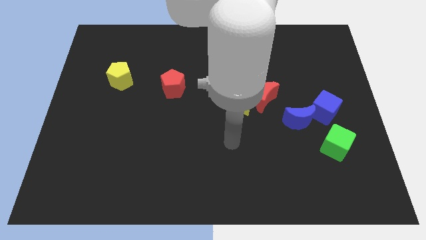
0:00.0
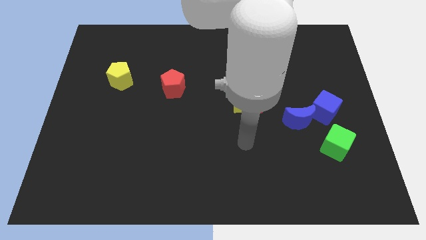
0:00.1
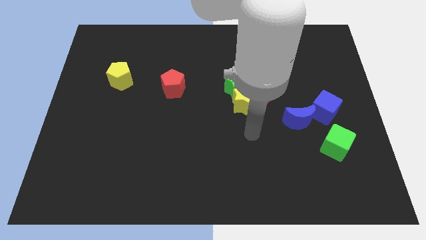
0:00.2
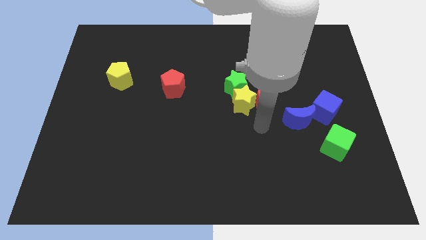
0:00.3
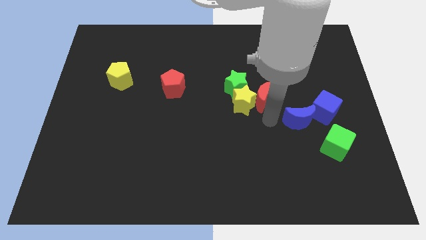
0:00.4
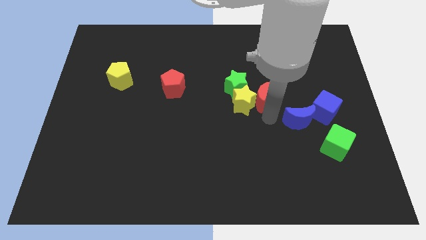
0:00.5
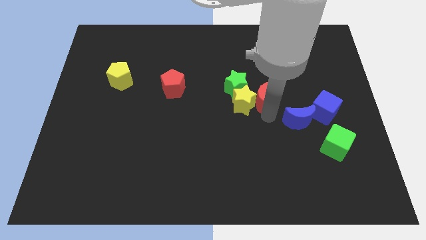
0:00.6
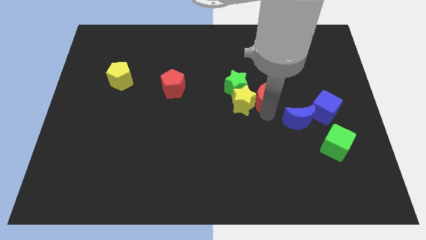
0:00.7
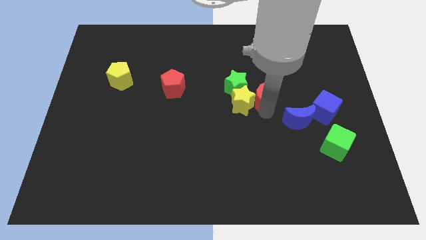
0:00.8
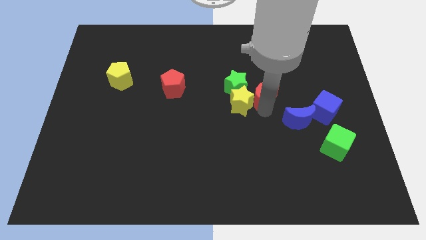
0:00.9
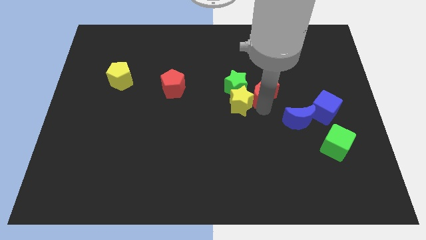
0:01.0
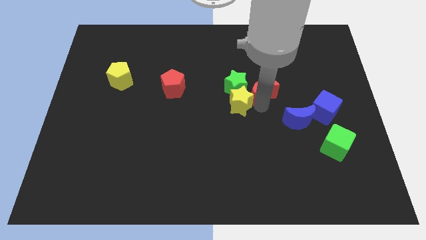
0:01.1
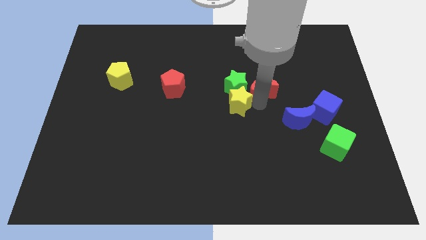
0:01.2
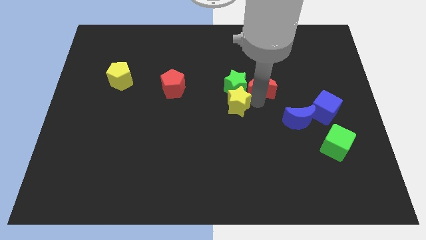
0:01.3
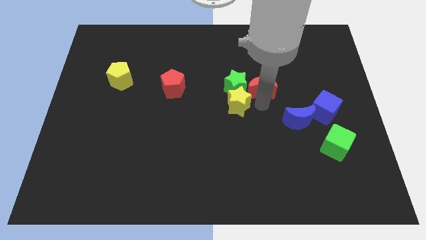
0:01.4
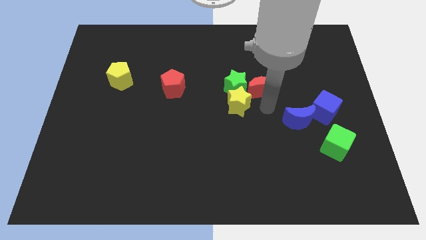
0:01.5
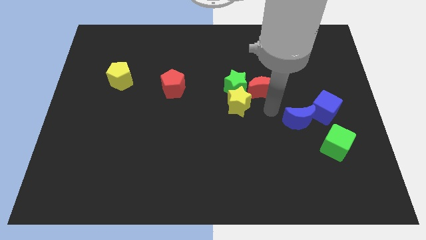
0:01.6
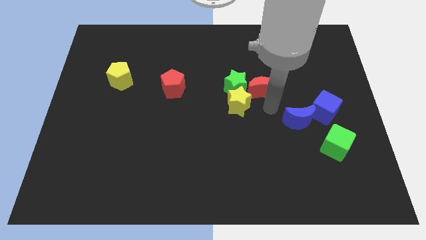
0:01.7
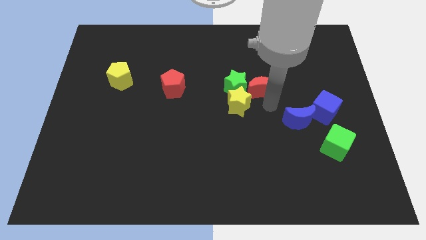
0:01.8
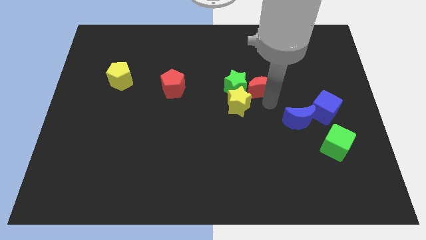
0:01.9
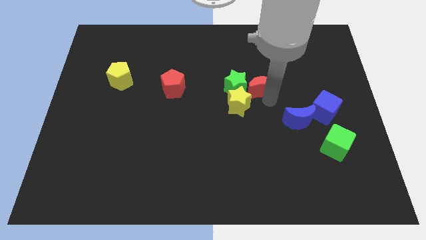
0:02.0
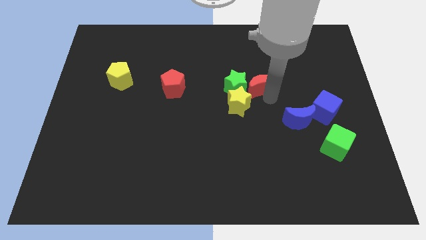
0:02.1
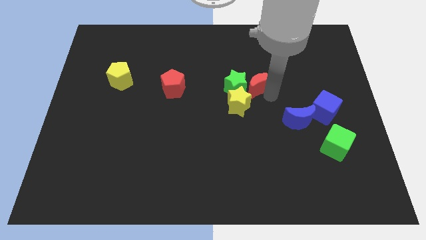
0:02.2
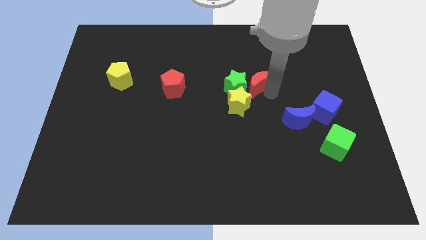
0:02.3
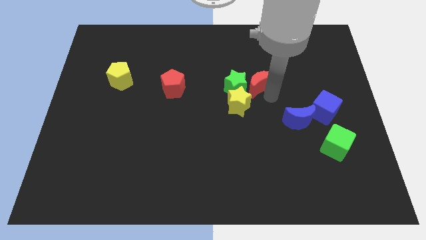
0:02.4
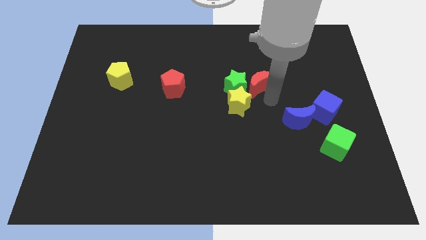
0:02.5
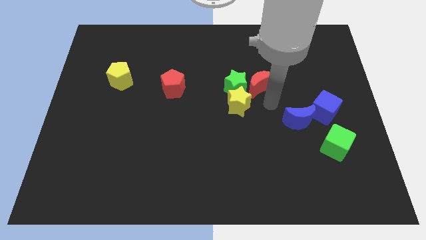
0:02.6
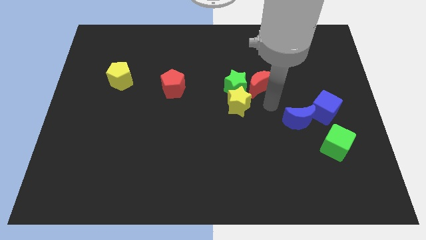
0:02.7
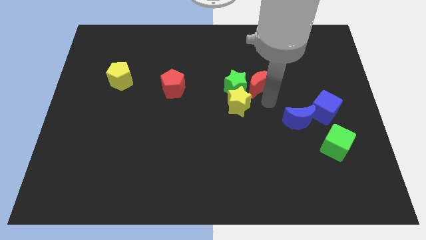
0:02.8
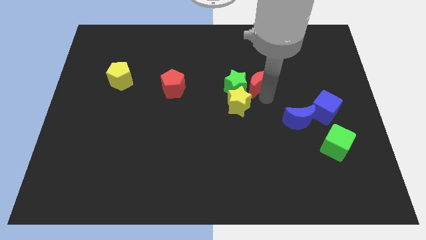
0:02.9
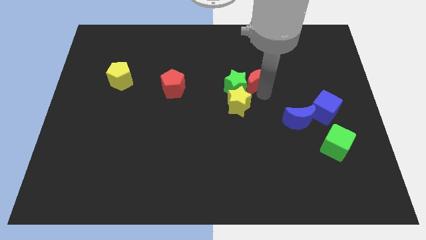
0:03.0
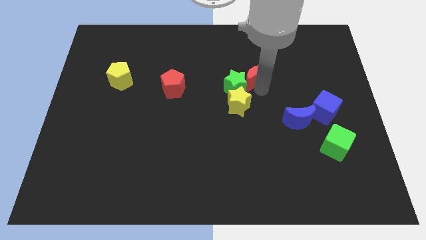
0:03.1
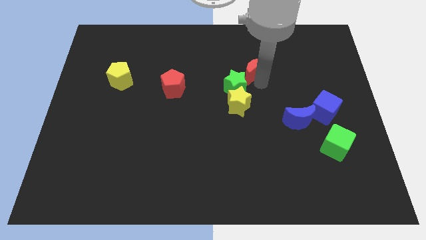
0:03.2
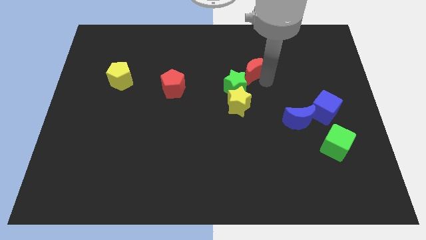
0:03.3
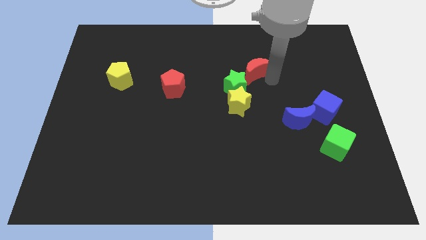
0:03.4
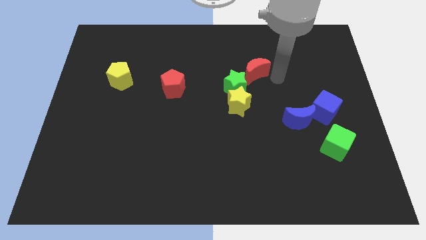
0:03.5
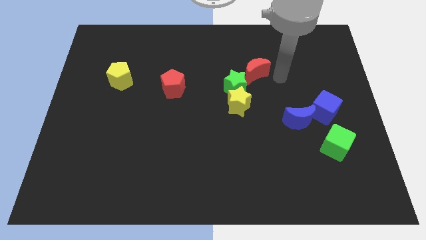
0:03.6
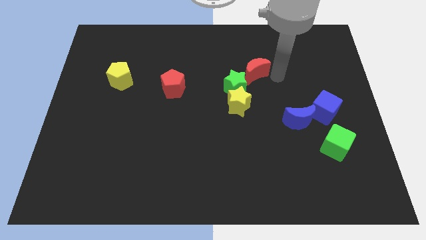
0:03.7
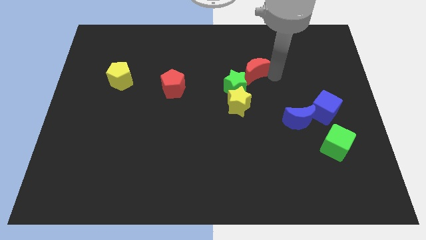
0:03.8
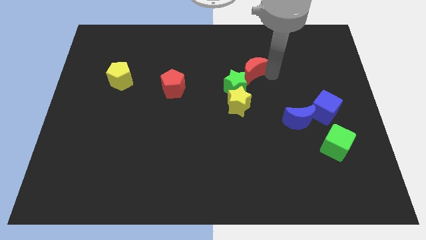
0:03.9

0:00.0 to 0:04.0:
move the red moon upwards and to the left somewhat

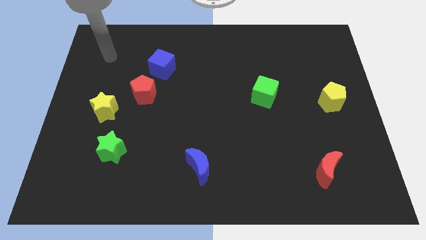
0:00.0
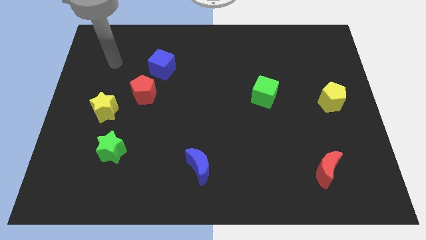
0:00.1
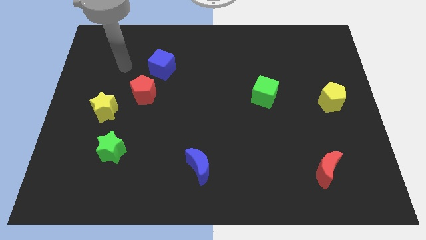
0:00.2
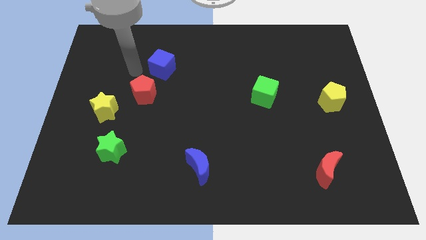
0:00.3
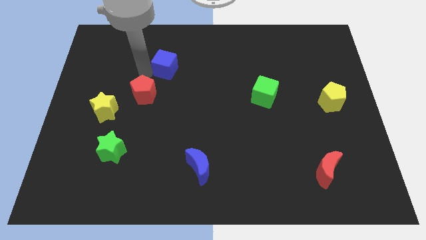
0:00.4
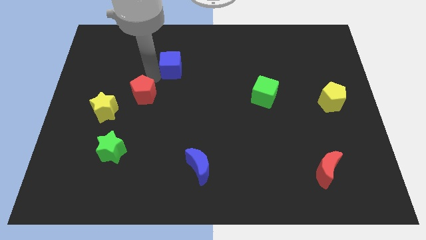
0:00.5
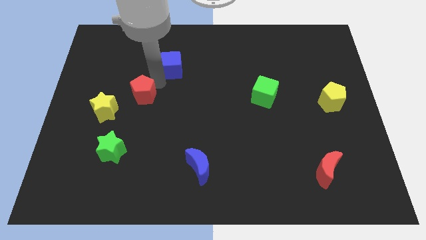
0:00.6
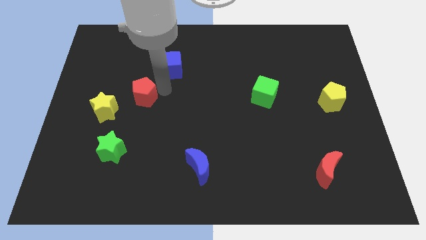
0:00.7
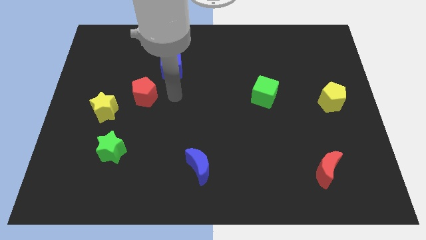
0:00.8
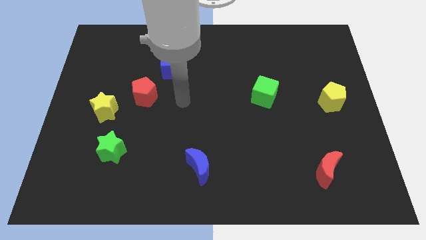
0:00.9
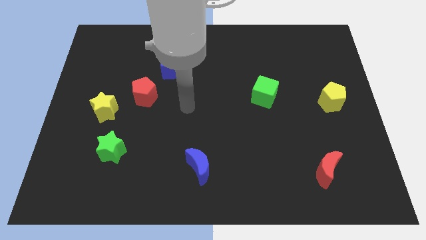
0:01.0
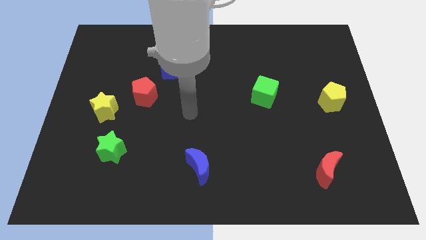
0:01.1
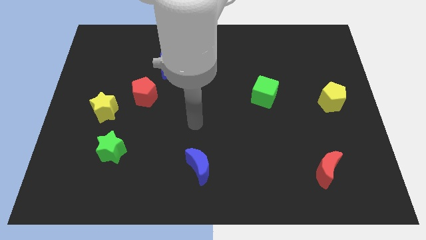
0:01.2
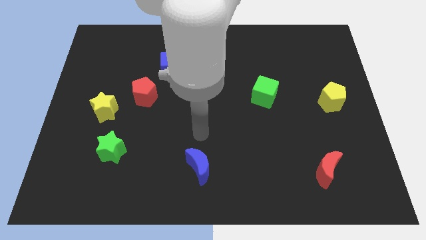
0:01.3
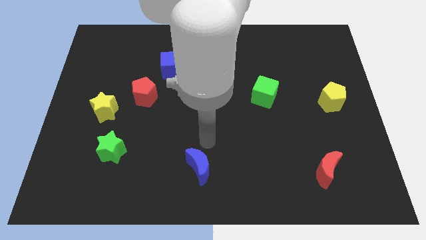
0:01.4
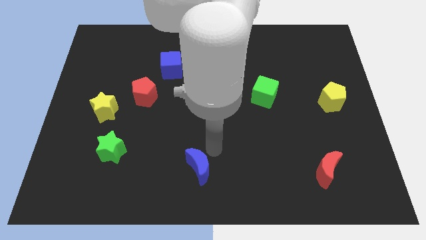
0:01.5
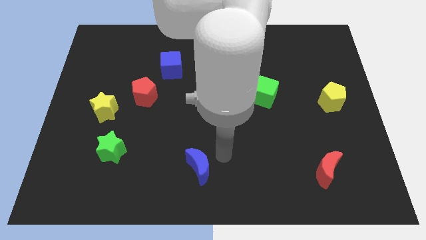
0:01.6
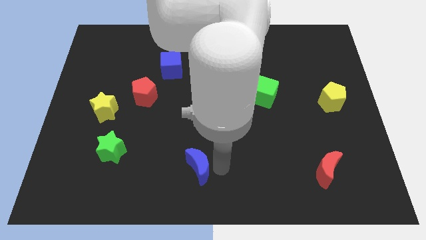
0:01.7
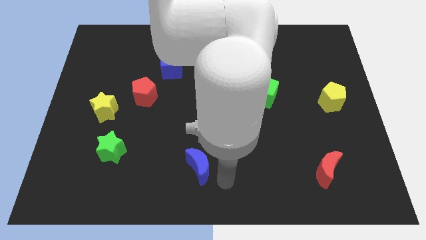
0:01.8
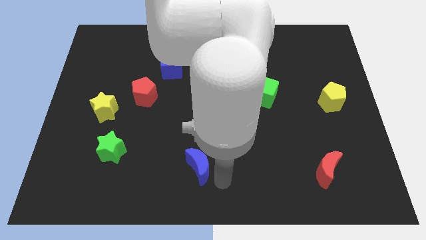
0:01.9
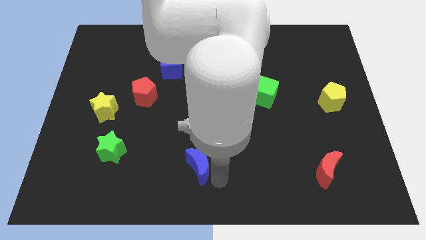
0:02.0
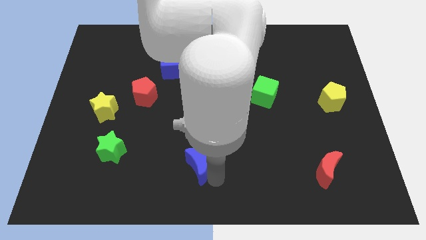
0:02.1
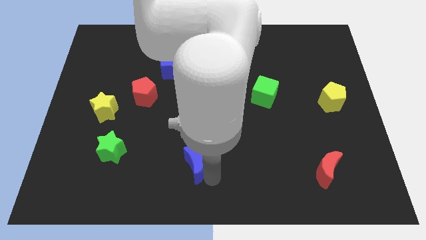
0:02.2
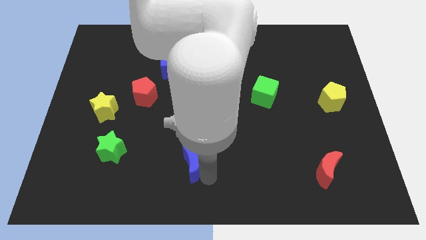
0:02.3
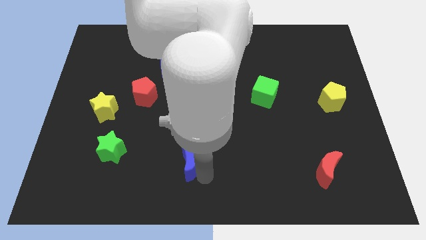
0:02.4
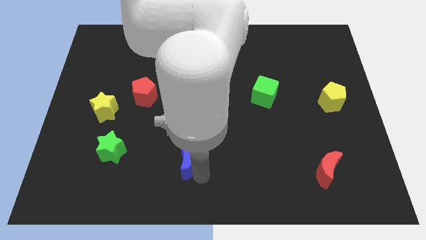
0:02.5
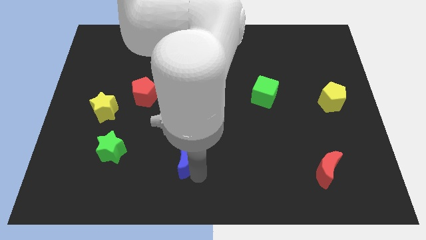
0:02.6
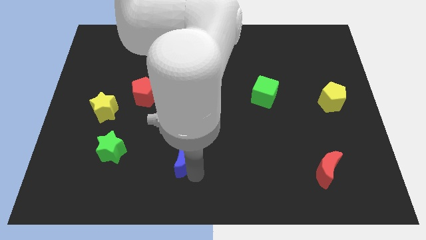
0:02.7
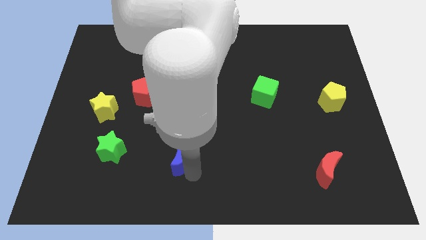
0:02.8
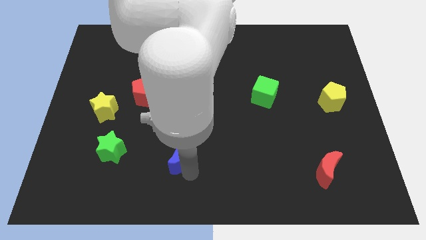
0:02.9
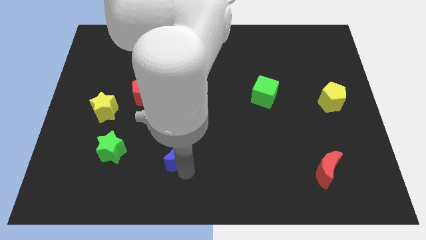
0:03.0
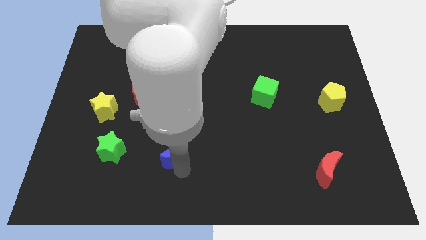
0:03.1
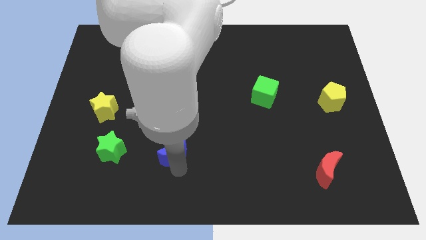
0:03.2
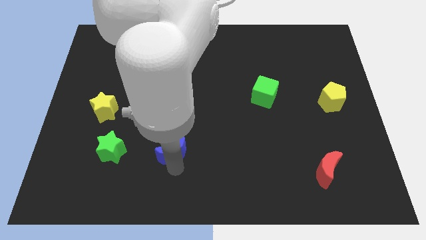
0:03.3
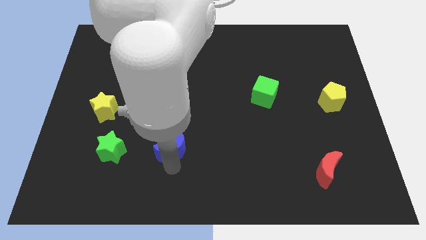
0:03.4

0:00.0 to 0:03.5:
slightly move the blue moon diagonally up and left

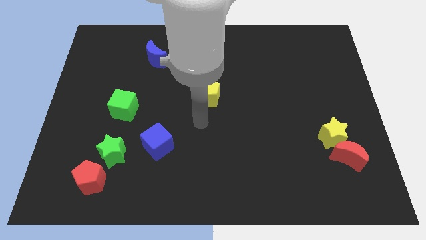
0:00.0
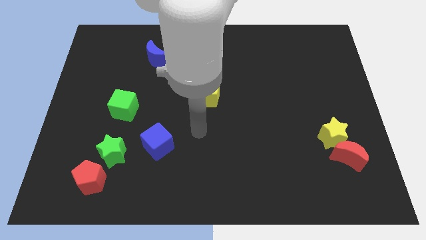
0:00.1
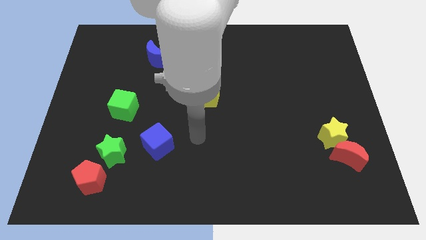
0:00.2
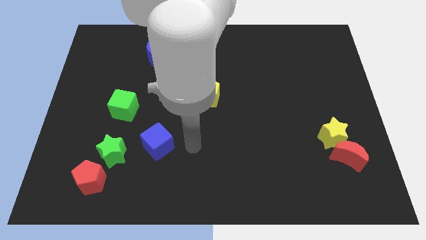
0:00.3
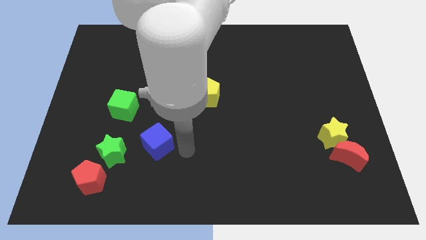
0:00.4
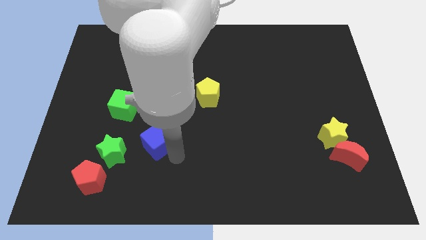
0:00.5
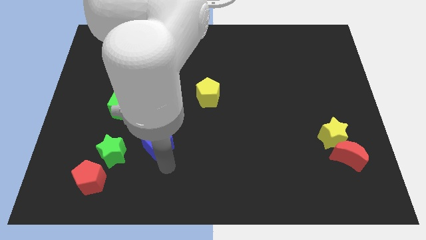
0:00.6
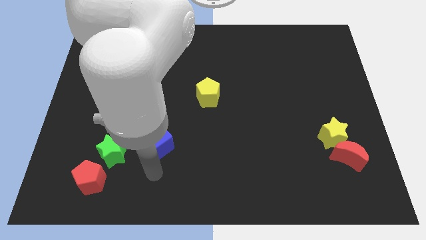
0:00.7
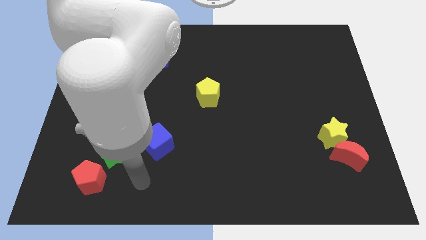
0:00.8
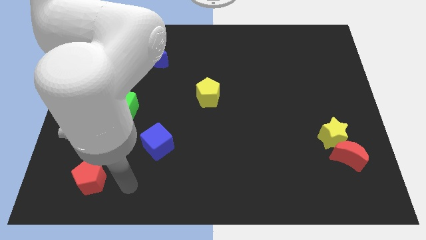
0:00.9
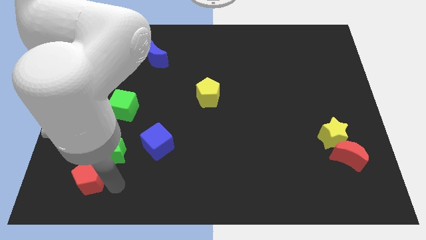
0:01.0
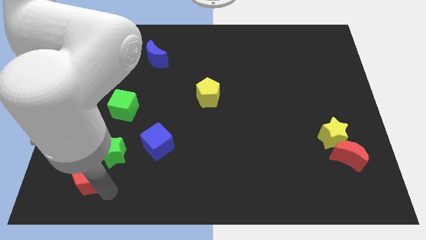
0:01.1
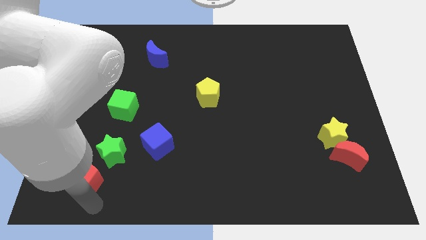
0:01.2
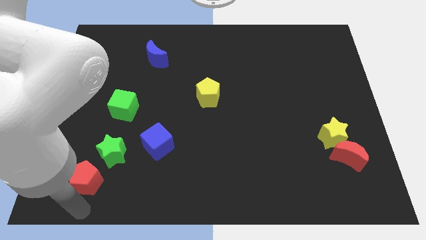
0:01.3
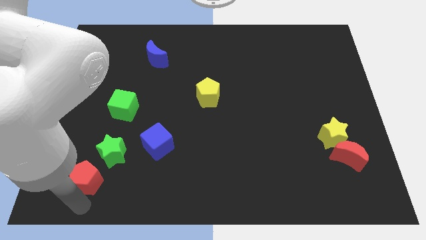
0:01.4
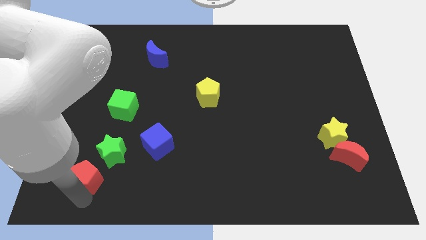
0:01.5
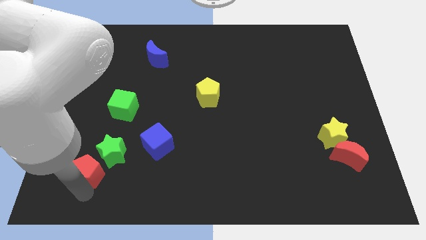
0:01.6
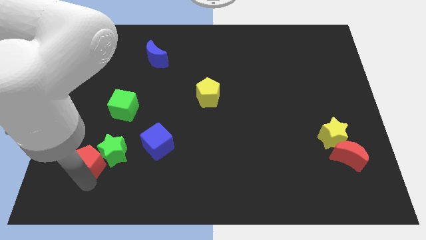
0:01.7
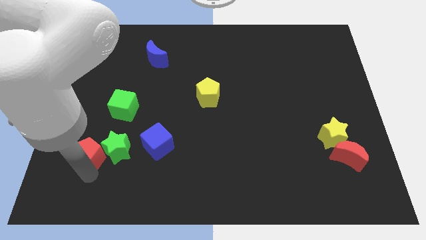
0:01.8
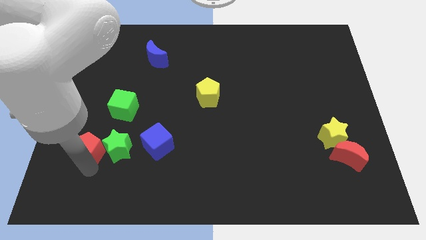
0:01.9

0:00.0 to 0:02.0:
move the red pentagon a bit up
